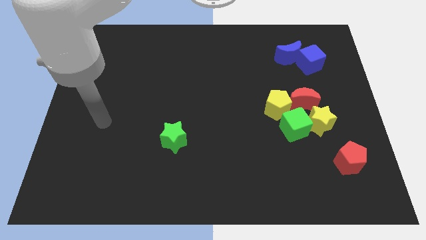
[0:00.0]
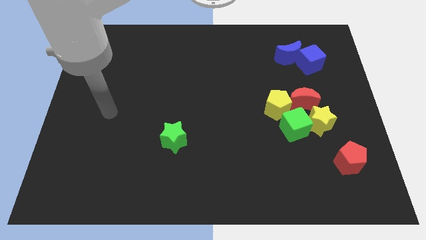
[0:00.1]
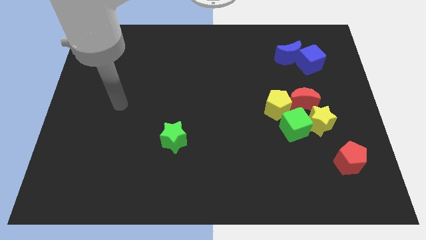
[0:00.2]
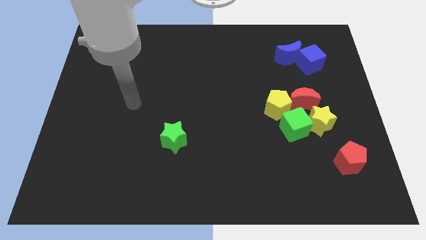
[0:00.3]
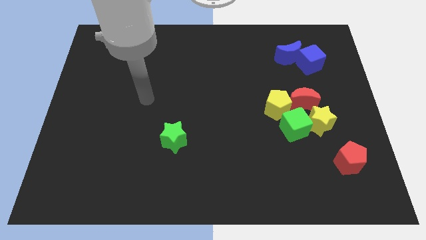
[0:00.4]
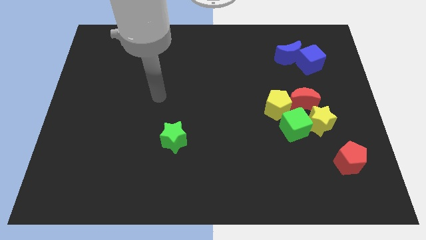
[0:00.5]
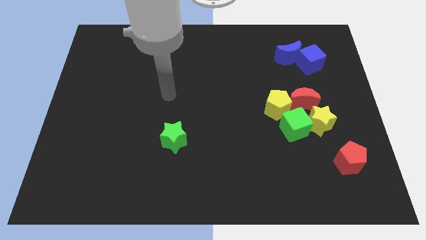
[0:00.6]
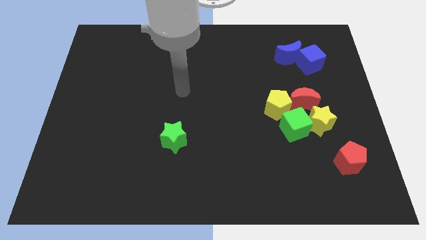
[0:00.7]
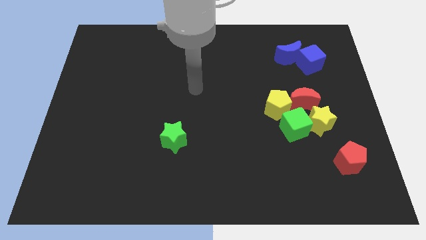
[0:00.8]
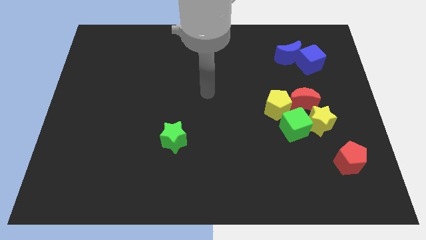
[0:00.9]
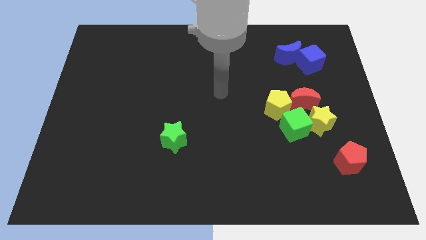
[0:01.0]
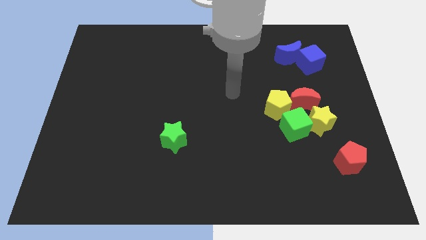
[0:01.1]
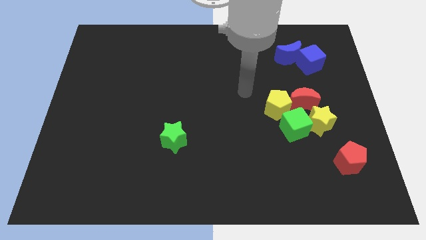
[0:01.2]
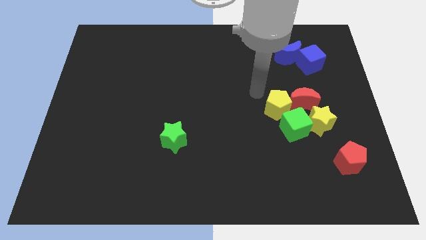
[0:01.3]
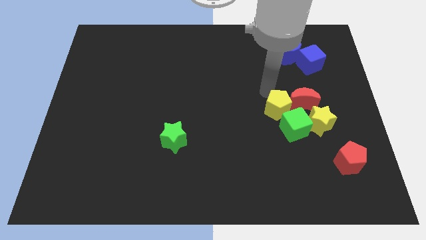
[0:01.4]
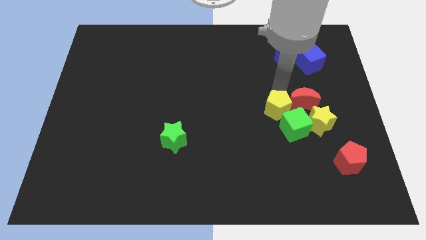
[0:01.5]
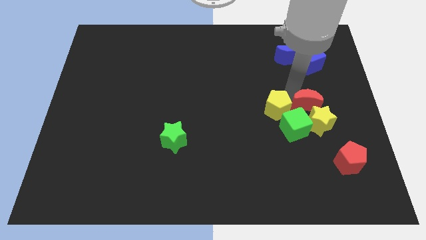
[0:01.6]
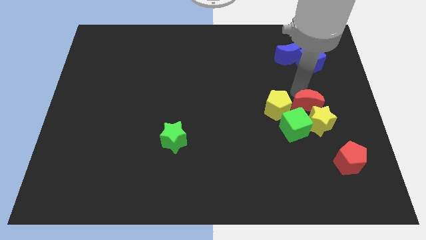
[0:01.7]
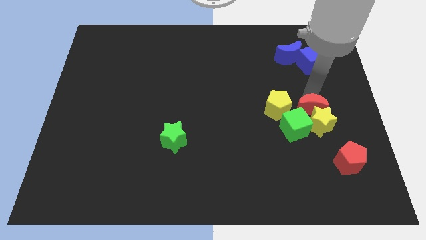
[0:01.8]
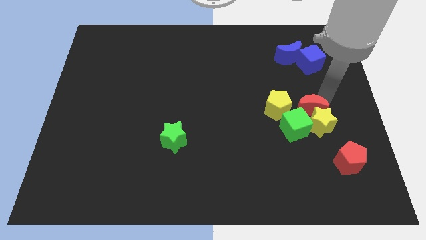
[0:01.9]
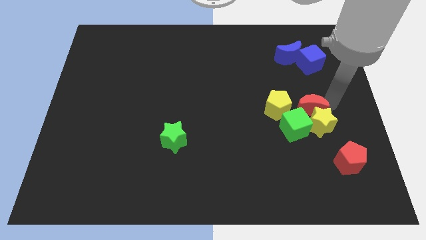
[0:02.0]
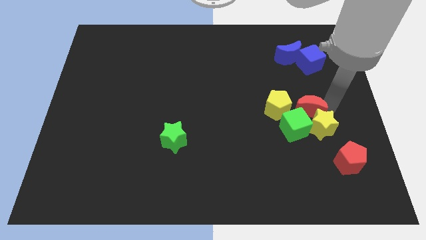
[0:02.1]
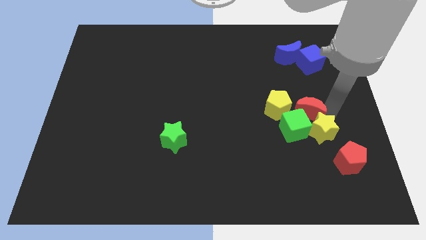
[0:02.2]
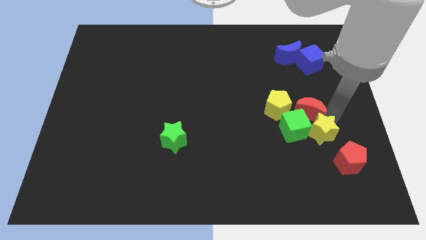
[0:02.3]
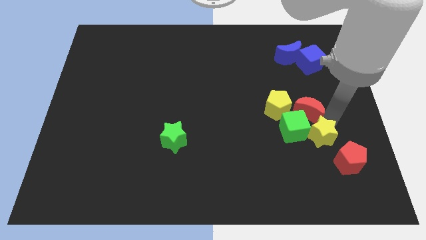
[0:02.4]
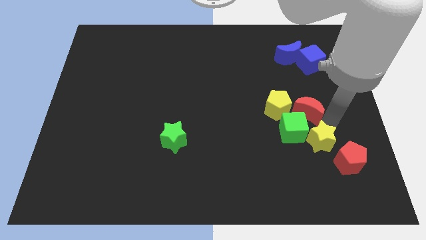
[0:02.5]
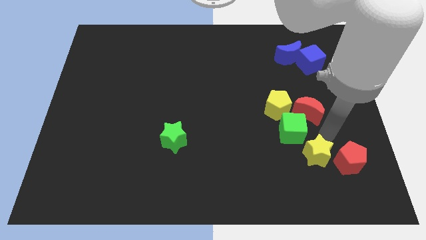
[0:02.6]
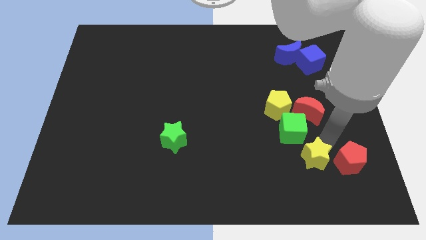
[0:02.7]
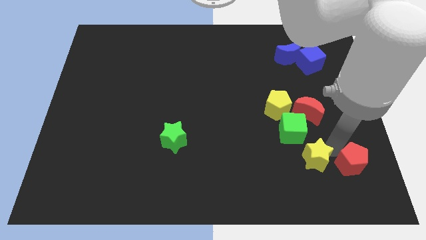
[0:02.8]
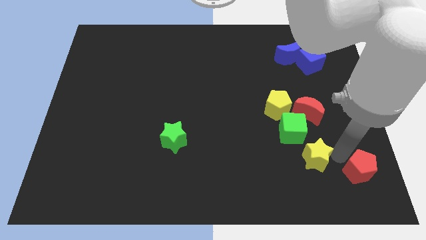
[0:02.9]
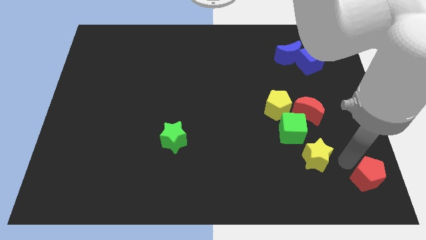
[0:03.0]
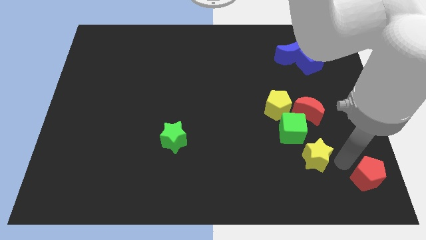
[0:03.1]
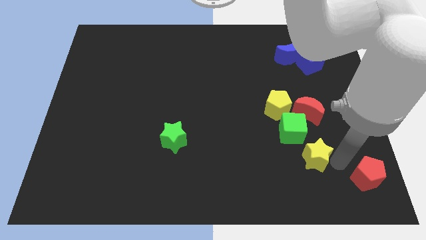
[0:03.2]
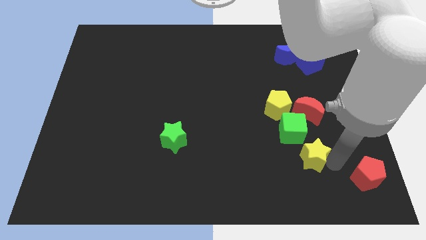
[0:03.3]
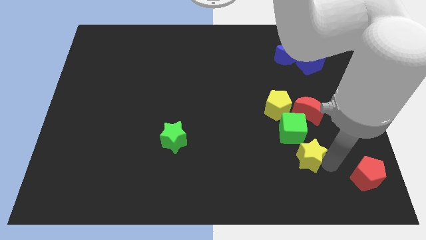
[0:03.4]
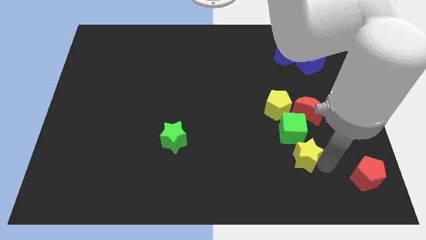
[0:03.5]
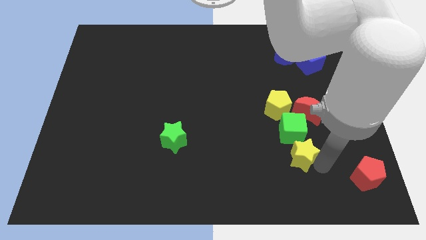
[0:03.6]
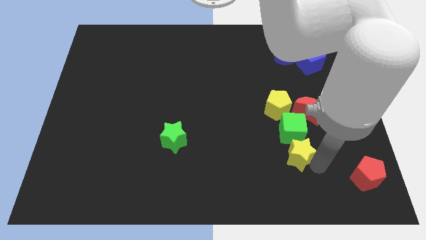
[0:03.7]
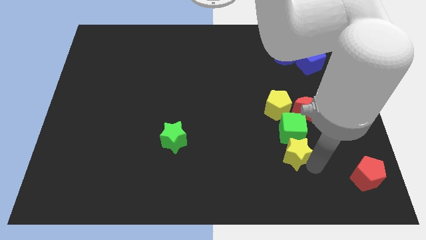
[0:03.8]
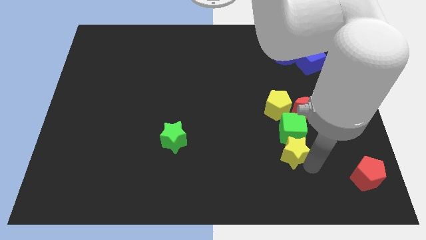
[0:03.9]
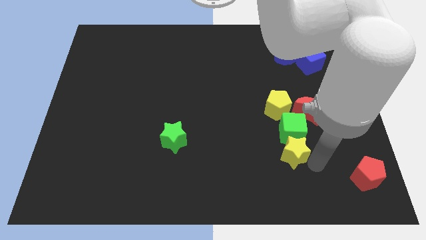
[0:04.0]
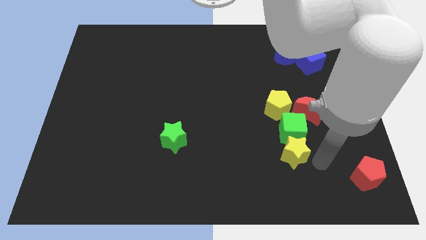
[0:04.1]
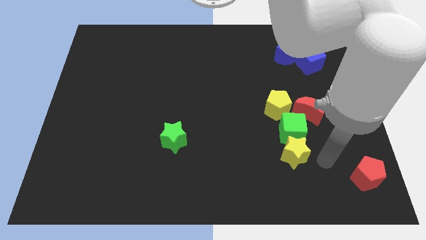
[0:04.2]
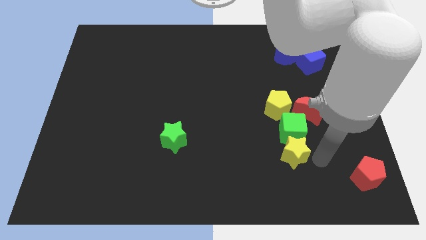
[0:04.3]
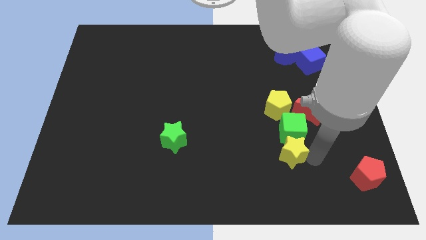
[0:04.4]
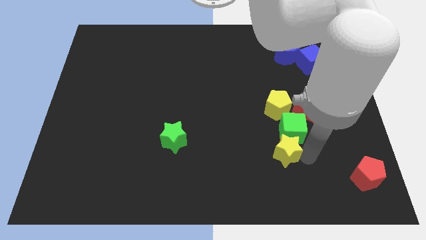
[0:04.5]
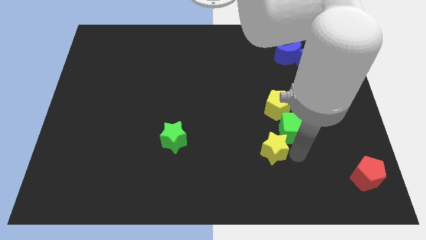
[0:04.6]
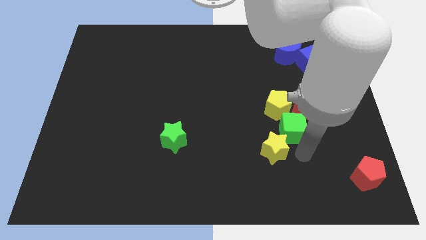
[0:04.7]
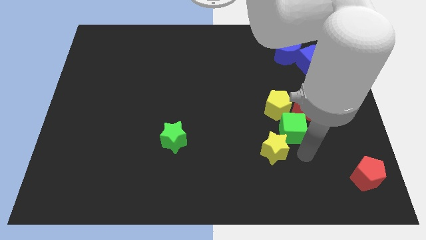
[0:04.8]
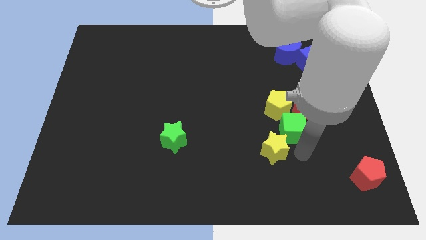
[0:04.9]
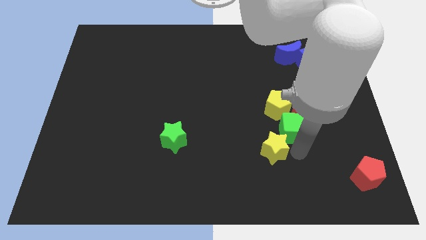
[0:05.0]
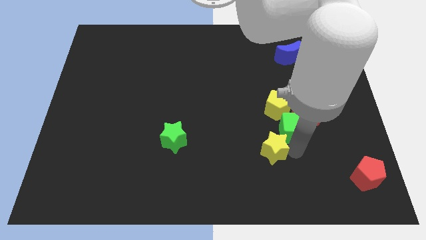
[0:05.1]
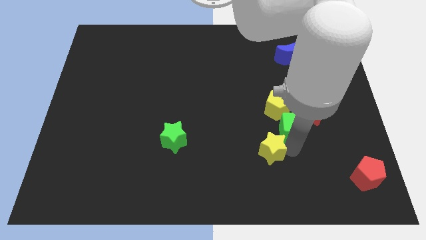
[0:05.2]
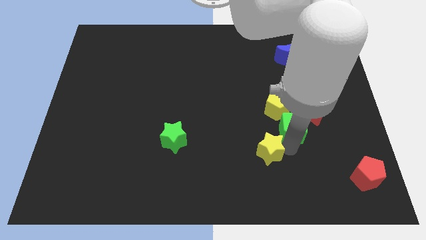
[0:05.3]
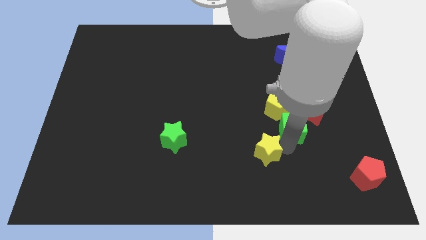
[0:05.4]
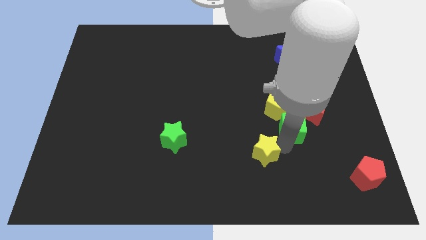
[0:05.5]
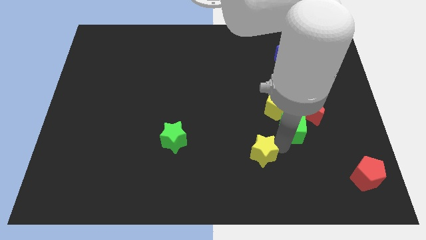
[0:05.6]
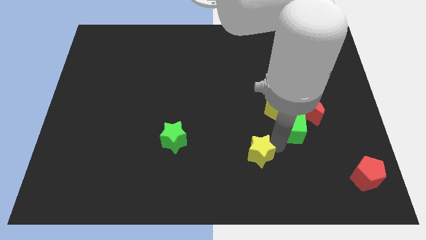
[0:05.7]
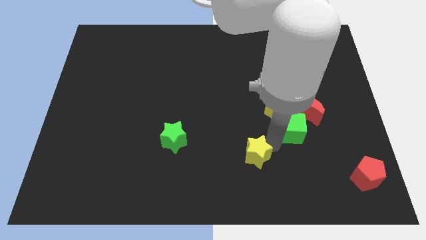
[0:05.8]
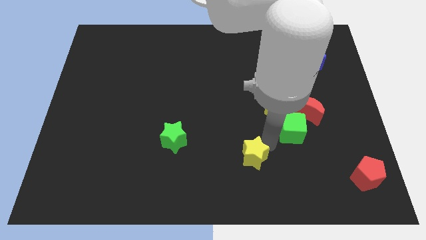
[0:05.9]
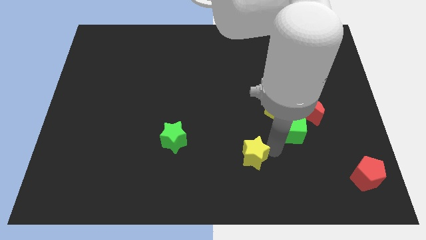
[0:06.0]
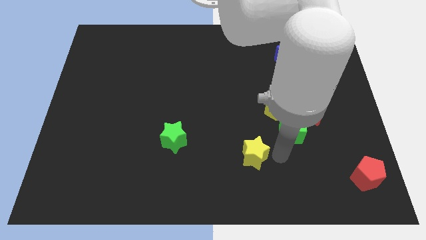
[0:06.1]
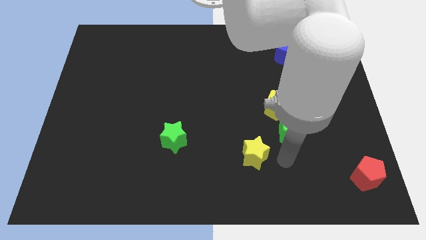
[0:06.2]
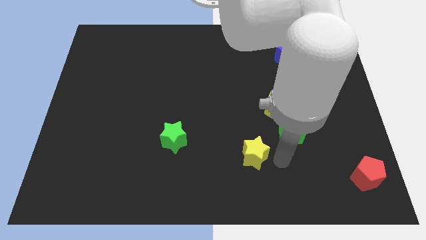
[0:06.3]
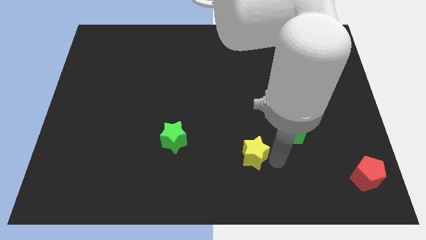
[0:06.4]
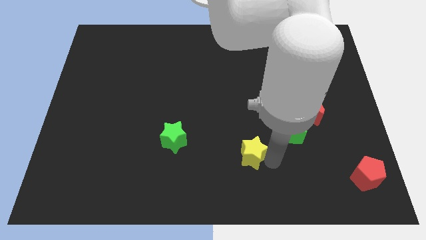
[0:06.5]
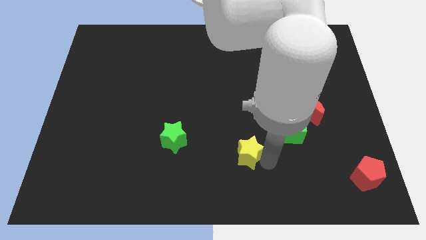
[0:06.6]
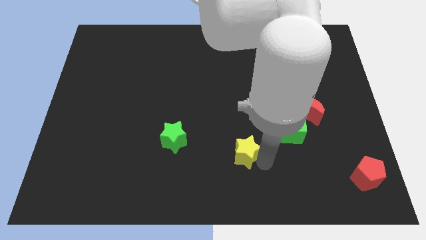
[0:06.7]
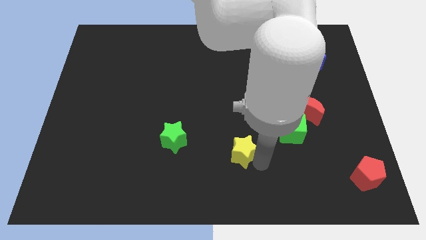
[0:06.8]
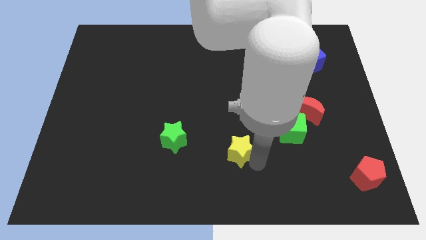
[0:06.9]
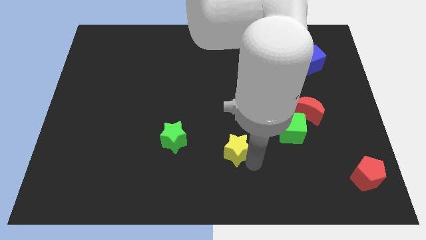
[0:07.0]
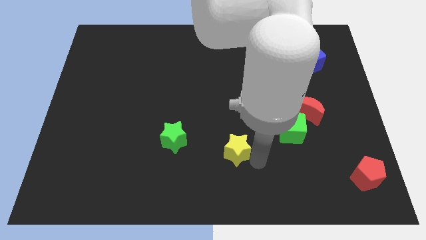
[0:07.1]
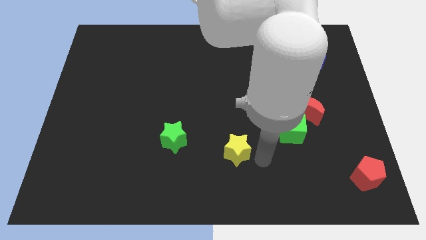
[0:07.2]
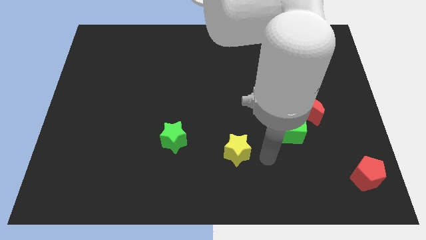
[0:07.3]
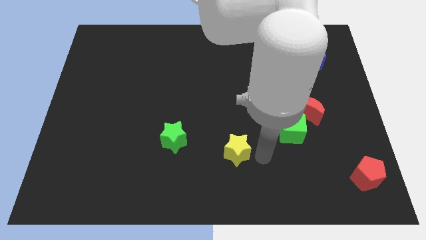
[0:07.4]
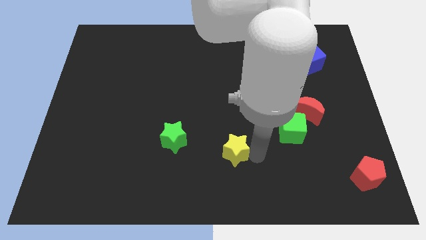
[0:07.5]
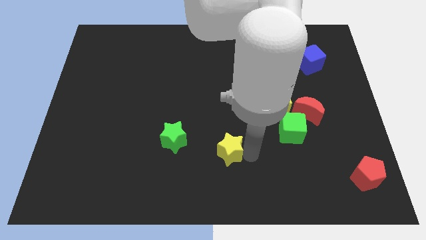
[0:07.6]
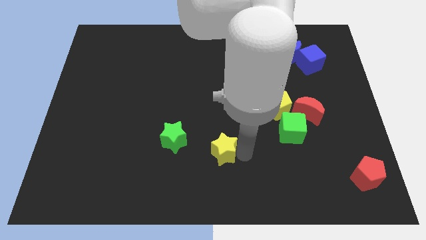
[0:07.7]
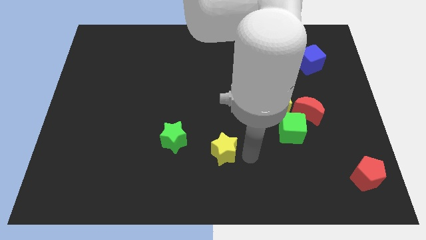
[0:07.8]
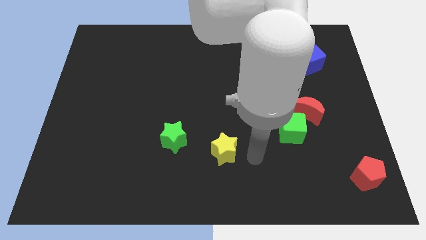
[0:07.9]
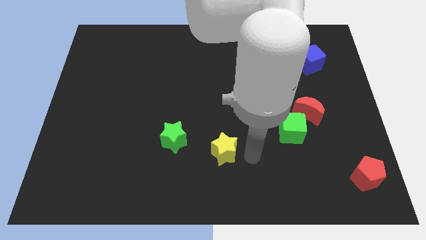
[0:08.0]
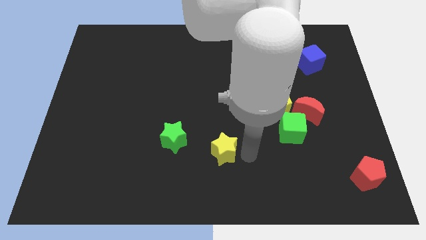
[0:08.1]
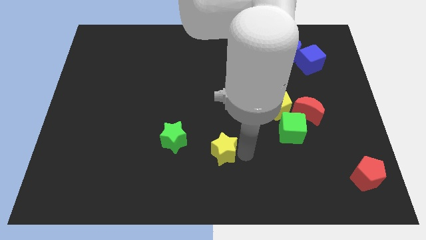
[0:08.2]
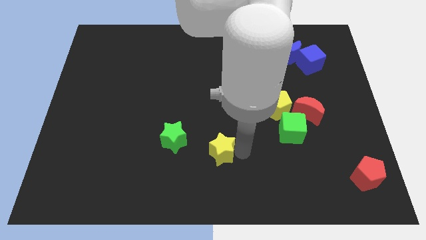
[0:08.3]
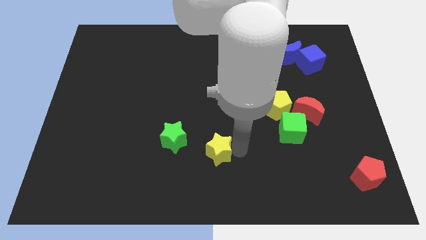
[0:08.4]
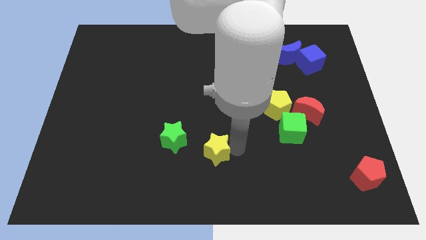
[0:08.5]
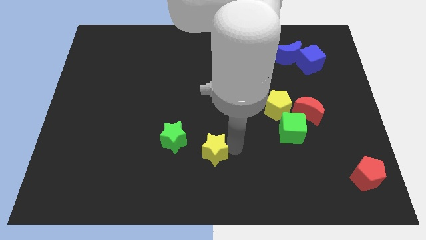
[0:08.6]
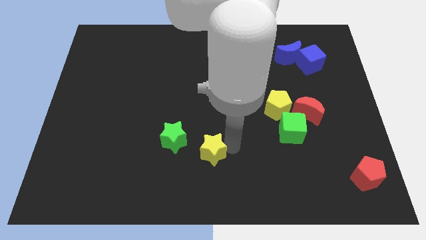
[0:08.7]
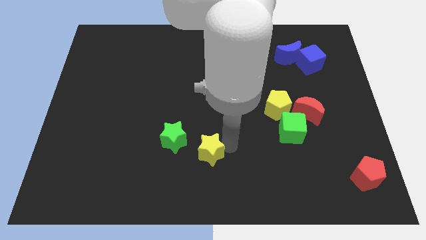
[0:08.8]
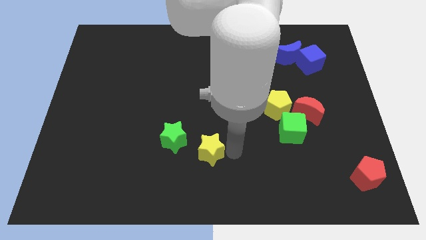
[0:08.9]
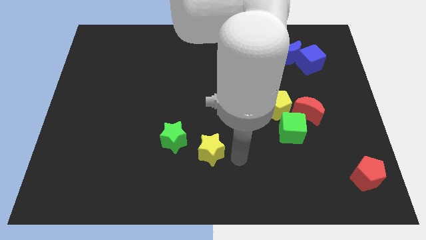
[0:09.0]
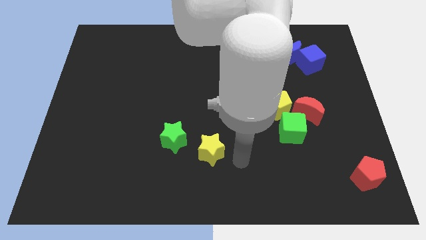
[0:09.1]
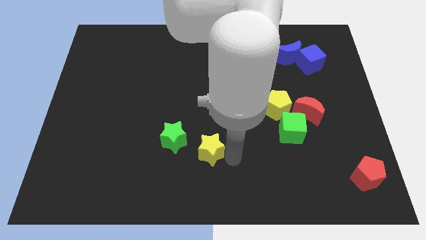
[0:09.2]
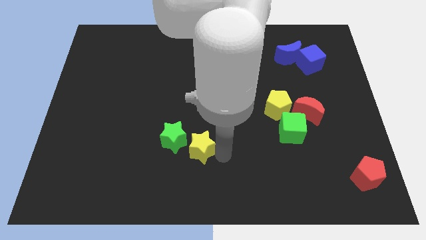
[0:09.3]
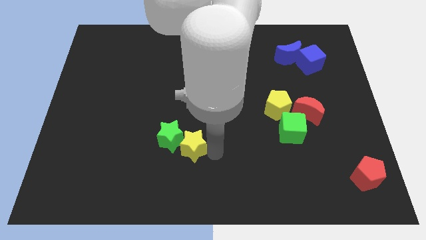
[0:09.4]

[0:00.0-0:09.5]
push the yellow star close to the green star
